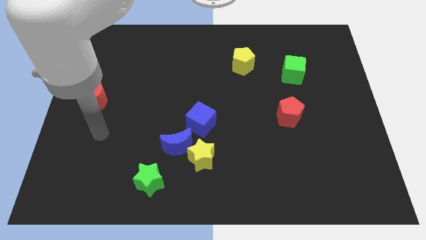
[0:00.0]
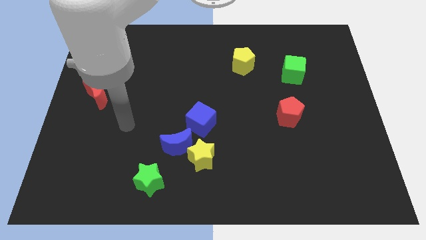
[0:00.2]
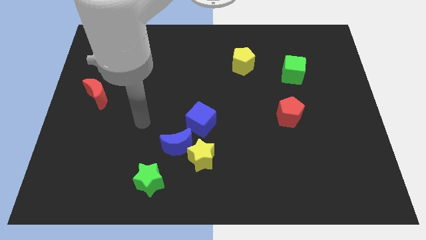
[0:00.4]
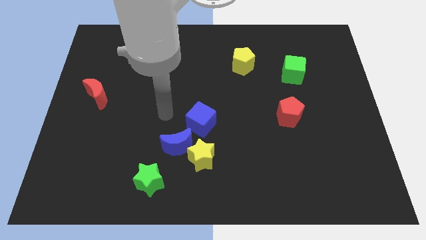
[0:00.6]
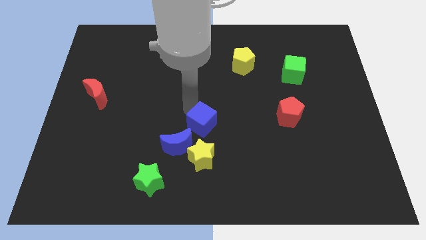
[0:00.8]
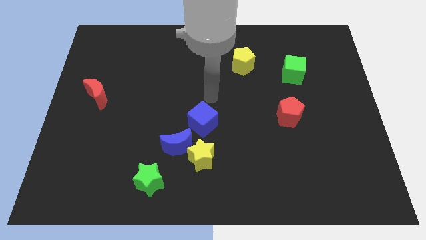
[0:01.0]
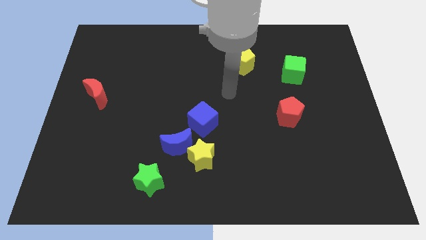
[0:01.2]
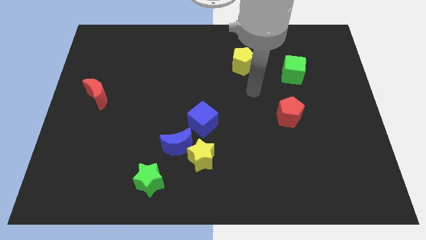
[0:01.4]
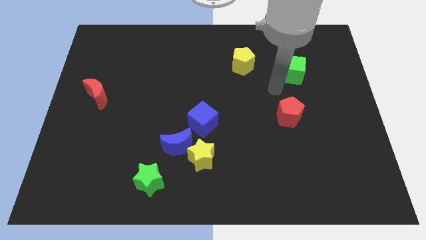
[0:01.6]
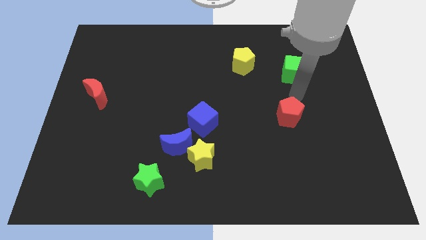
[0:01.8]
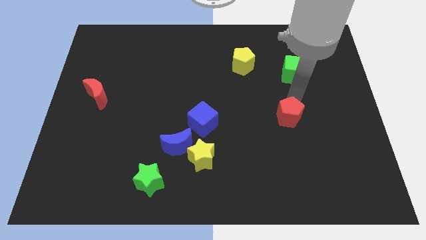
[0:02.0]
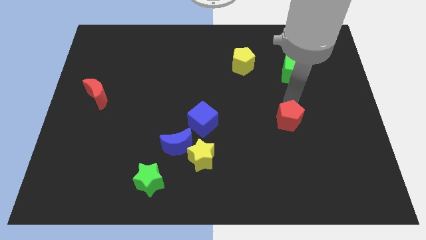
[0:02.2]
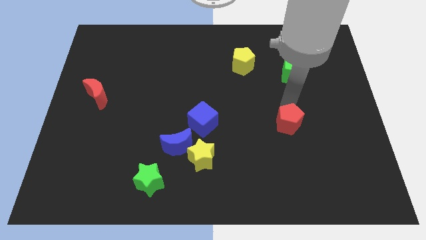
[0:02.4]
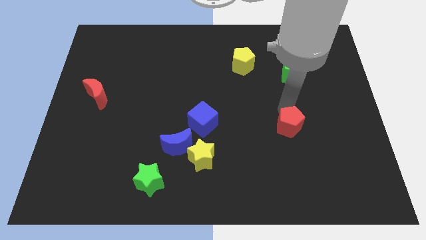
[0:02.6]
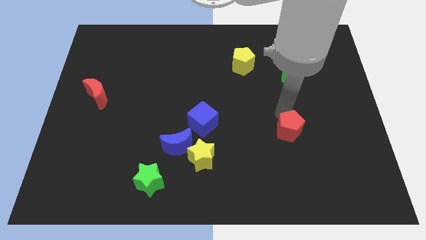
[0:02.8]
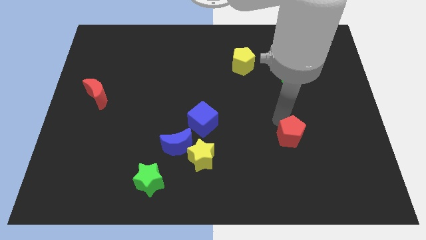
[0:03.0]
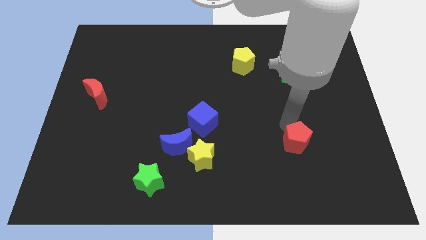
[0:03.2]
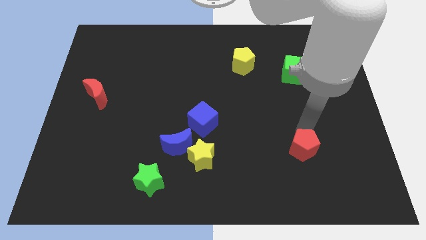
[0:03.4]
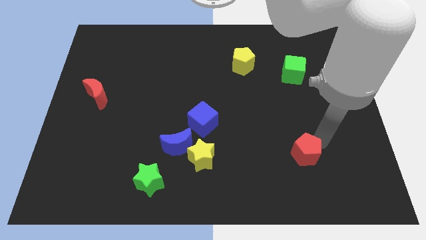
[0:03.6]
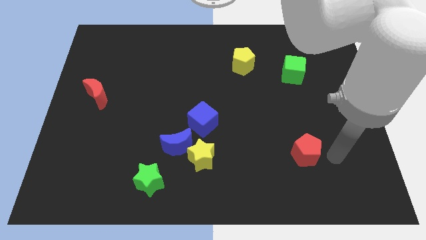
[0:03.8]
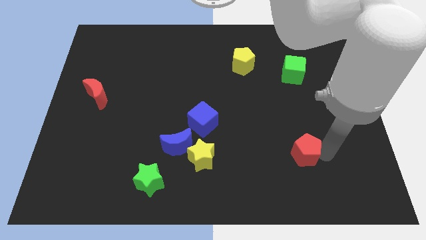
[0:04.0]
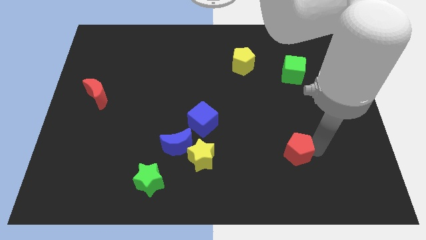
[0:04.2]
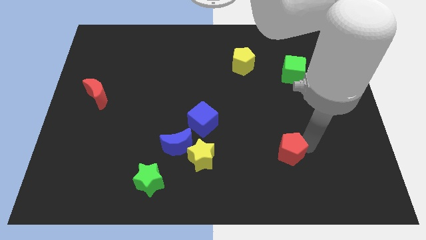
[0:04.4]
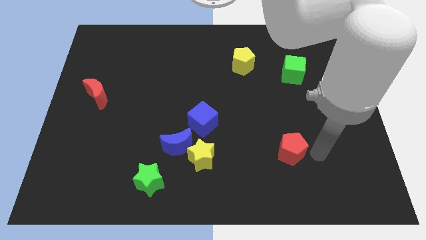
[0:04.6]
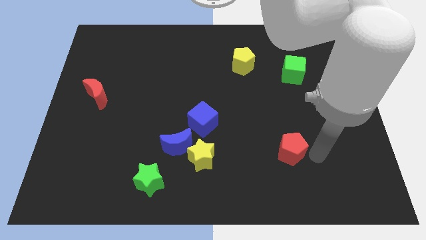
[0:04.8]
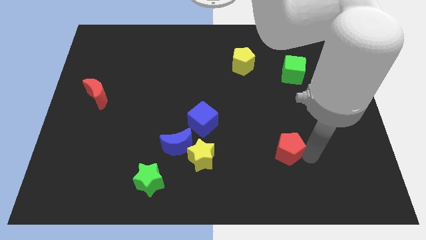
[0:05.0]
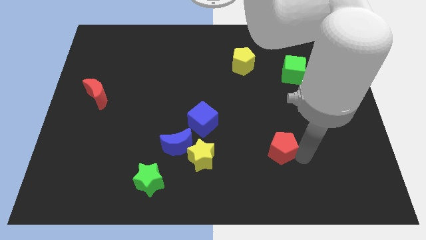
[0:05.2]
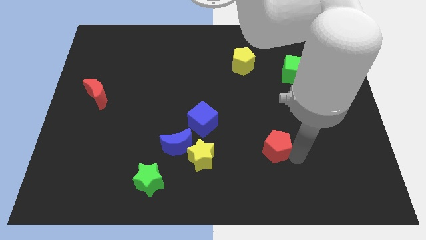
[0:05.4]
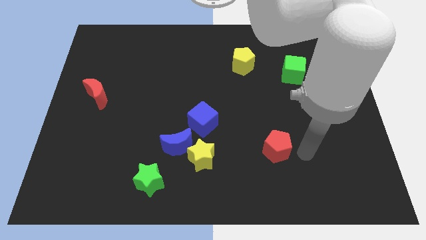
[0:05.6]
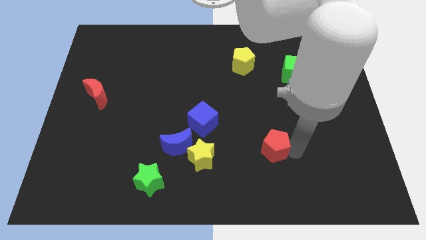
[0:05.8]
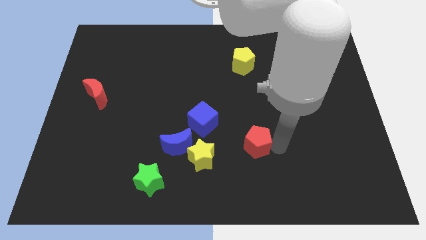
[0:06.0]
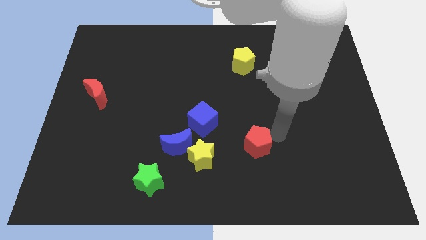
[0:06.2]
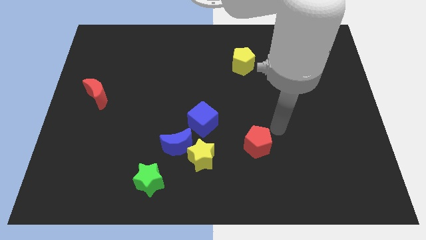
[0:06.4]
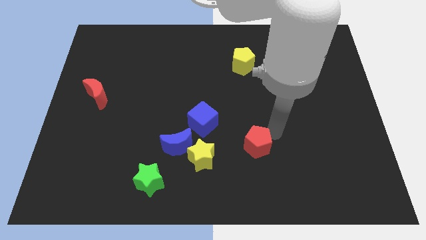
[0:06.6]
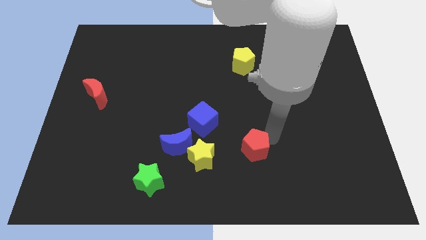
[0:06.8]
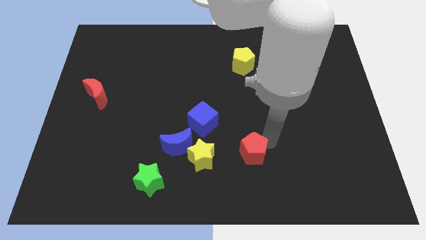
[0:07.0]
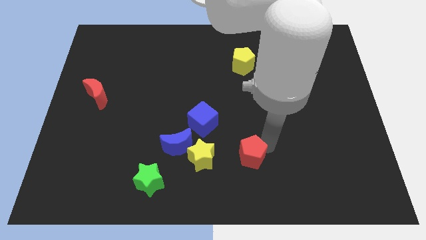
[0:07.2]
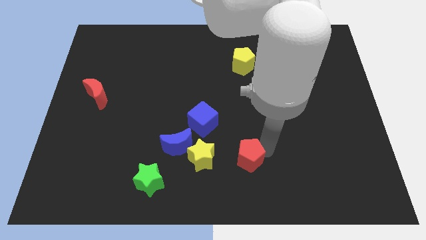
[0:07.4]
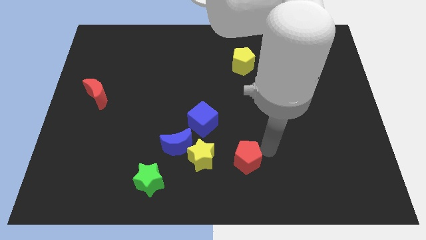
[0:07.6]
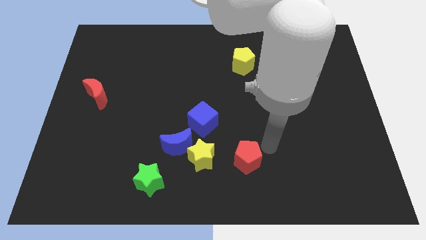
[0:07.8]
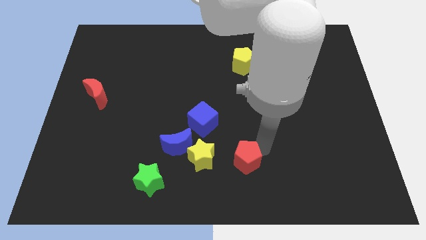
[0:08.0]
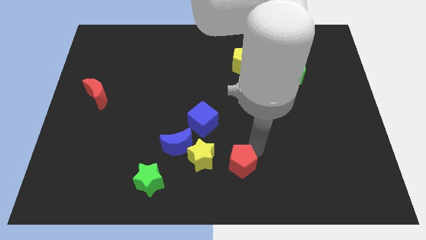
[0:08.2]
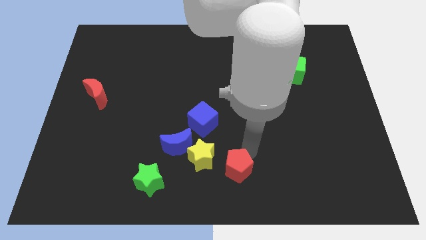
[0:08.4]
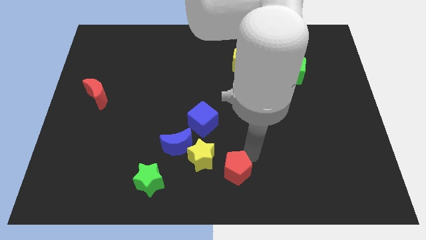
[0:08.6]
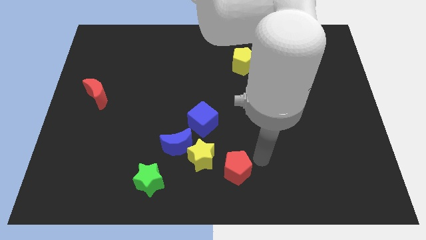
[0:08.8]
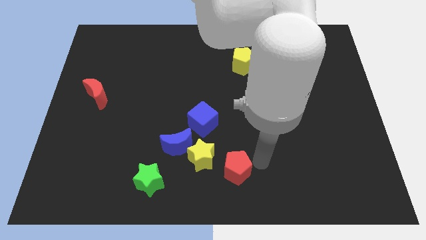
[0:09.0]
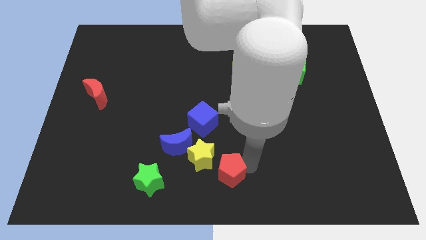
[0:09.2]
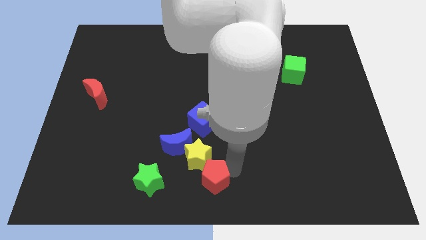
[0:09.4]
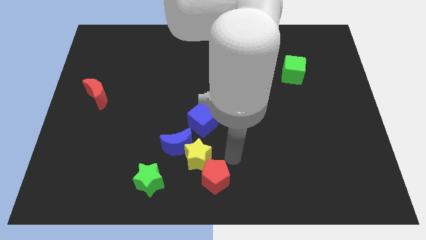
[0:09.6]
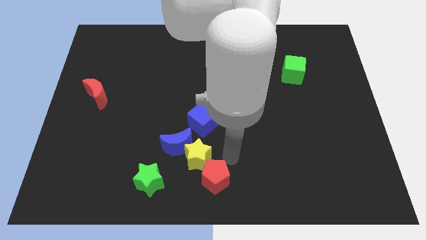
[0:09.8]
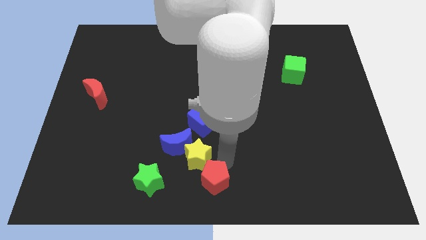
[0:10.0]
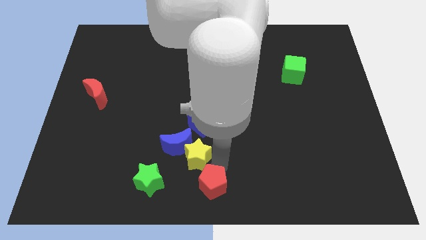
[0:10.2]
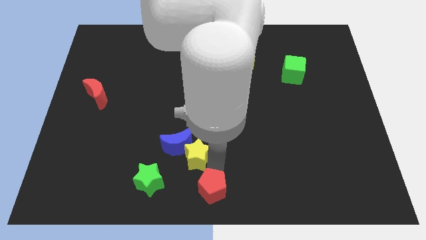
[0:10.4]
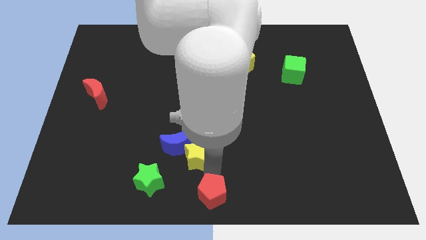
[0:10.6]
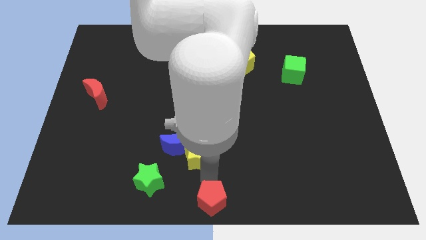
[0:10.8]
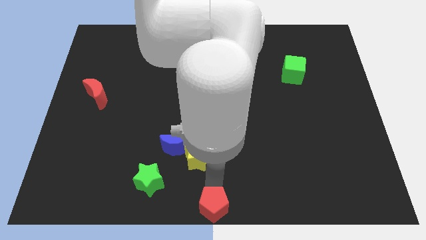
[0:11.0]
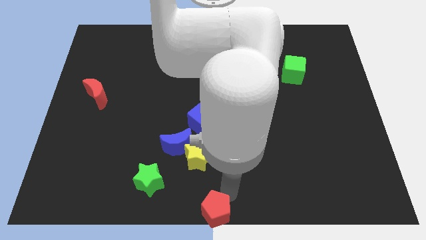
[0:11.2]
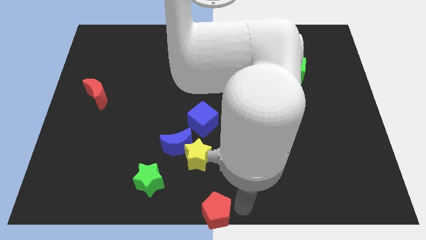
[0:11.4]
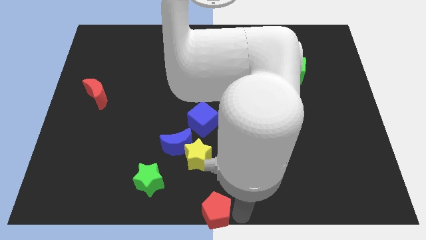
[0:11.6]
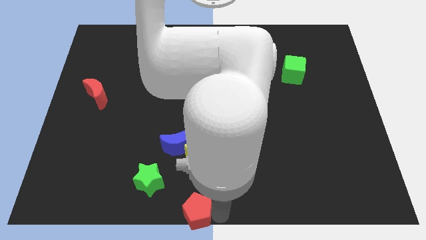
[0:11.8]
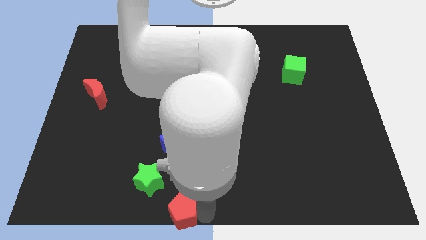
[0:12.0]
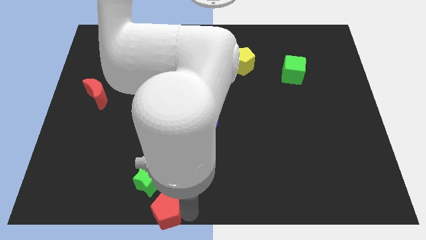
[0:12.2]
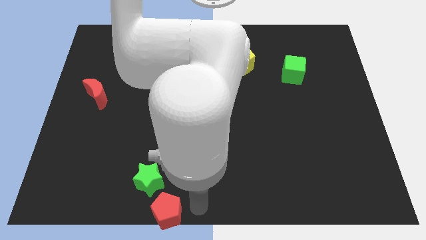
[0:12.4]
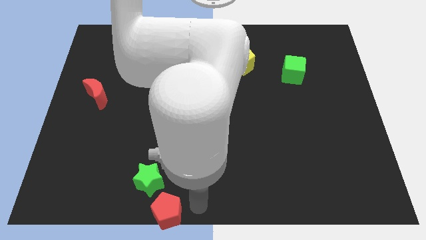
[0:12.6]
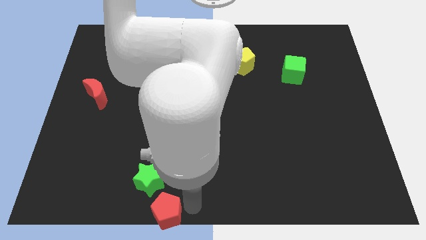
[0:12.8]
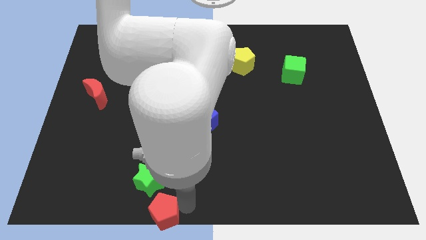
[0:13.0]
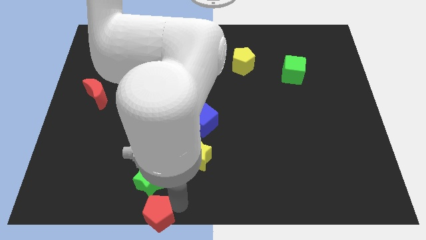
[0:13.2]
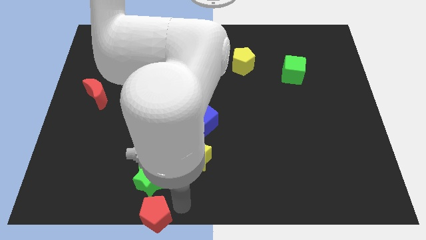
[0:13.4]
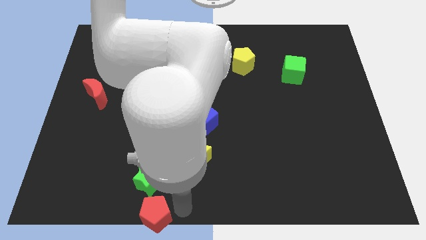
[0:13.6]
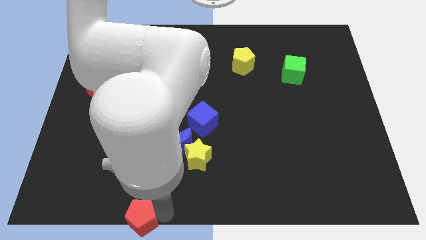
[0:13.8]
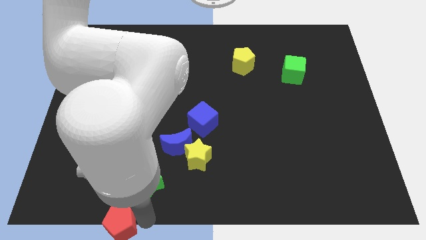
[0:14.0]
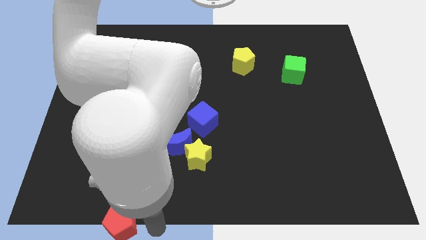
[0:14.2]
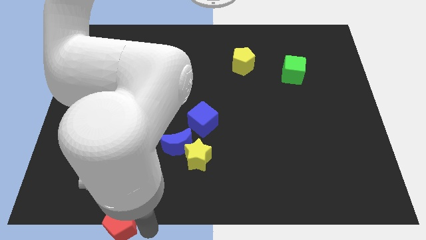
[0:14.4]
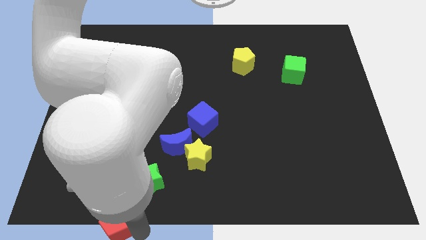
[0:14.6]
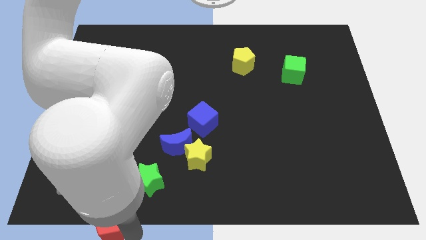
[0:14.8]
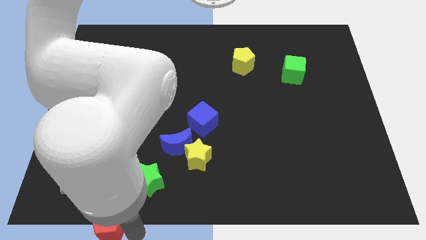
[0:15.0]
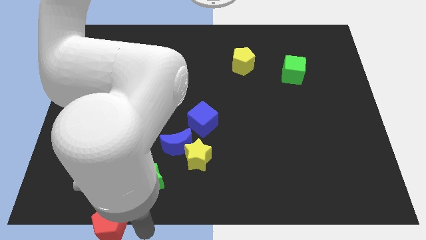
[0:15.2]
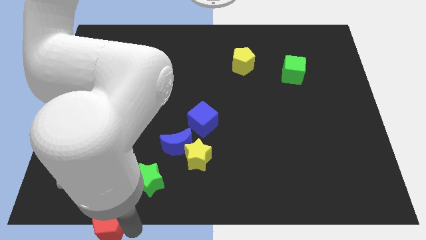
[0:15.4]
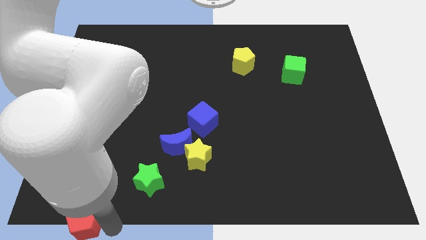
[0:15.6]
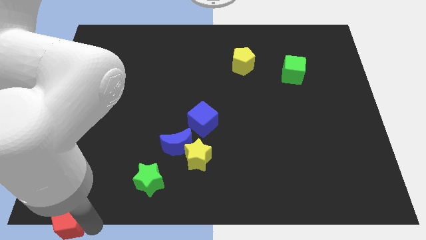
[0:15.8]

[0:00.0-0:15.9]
put the red pentagon to the bottom left
